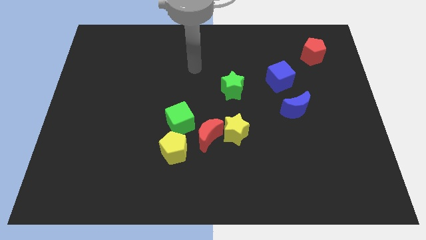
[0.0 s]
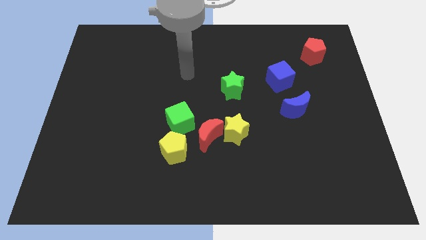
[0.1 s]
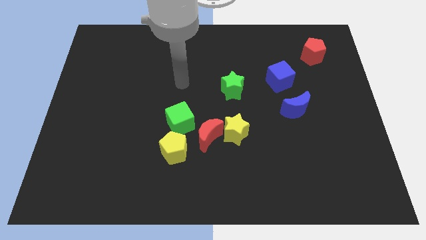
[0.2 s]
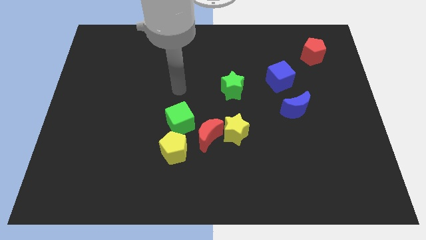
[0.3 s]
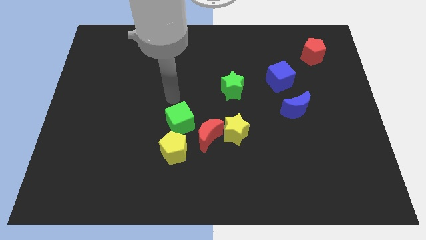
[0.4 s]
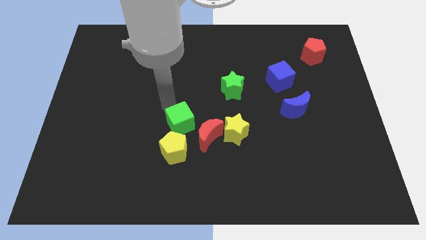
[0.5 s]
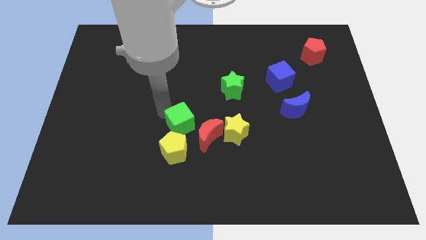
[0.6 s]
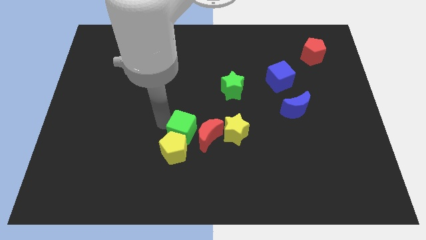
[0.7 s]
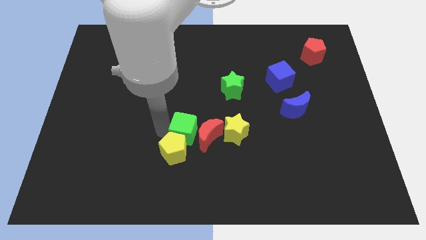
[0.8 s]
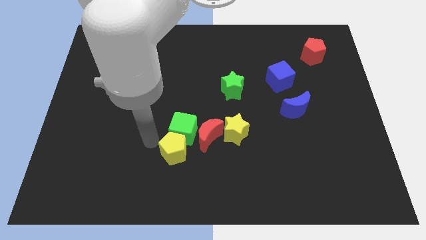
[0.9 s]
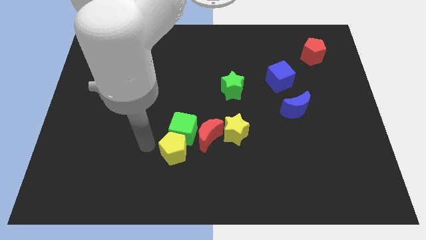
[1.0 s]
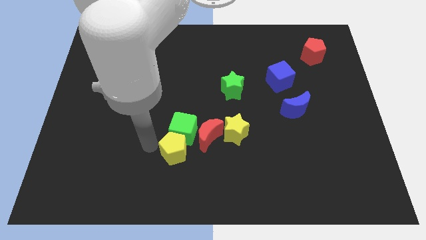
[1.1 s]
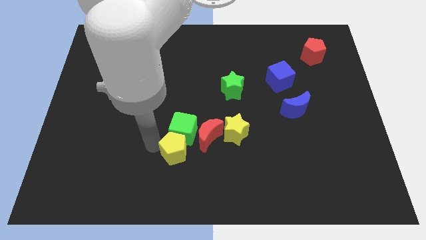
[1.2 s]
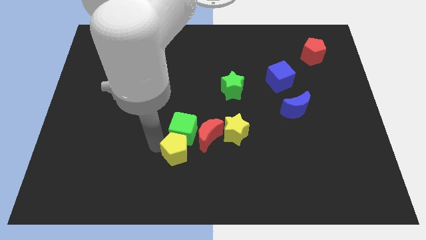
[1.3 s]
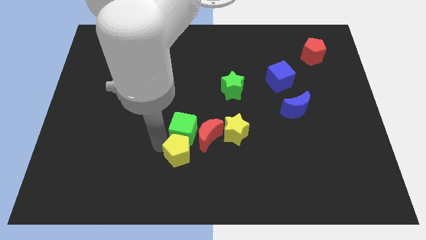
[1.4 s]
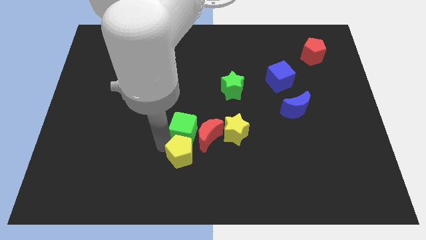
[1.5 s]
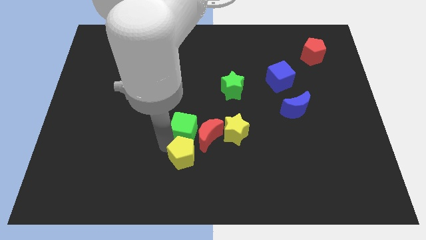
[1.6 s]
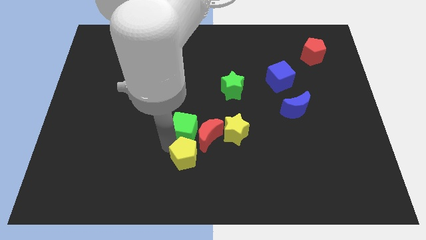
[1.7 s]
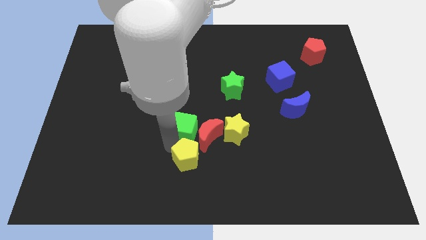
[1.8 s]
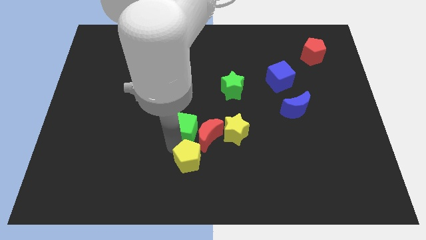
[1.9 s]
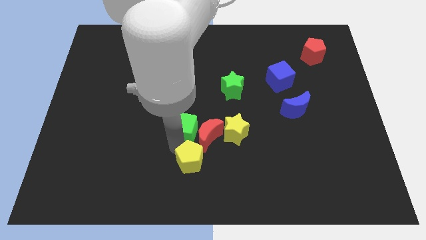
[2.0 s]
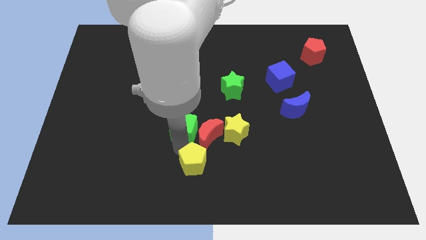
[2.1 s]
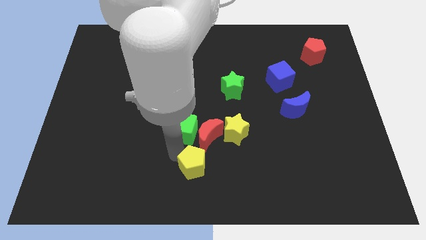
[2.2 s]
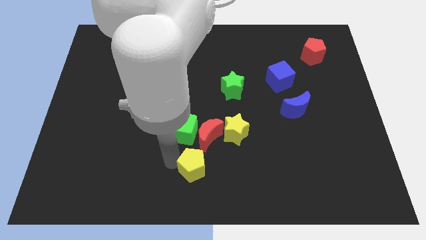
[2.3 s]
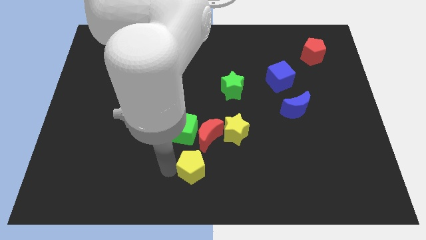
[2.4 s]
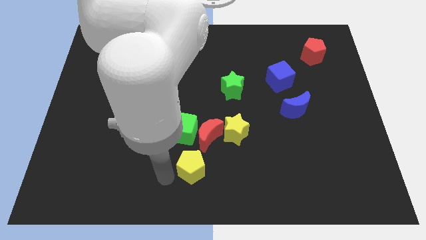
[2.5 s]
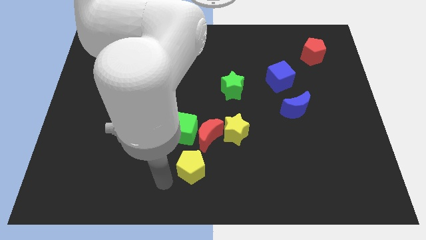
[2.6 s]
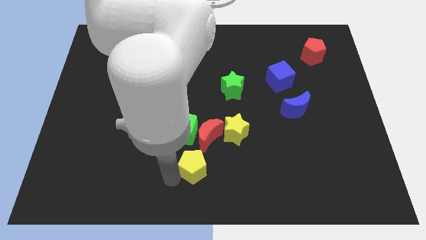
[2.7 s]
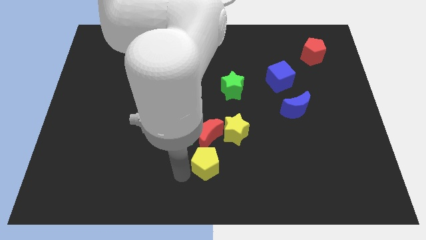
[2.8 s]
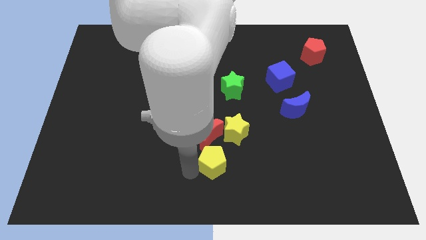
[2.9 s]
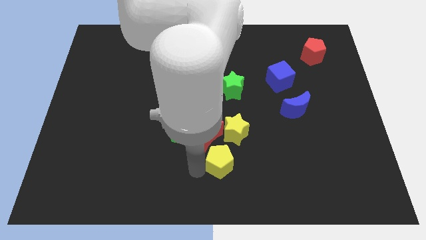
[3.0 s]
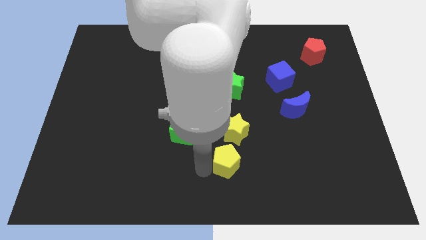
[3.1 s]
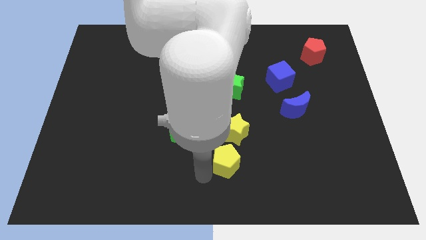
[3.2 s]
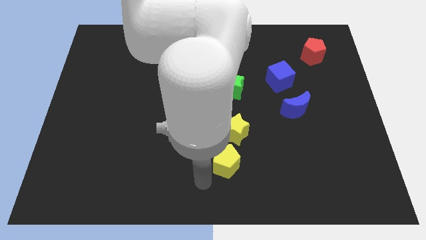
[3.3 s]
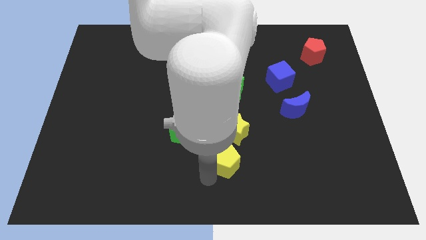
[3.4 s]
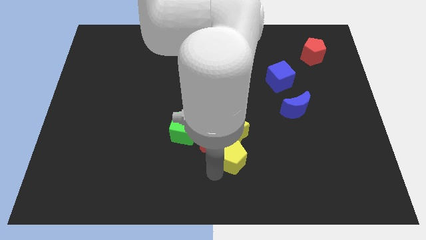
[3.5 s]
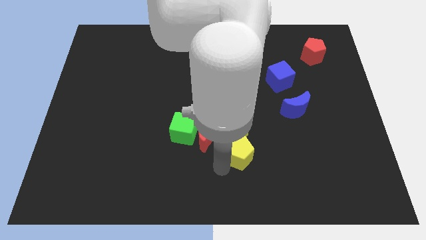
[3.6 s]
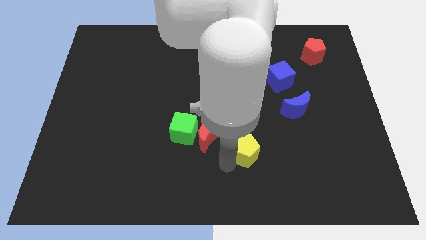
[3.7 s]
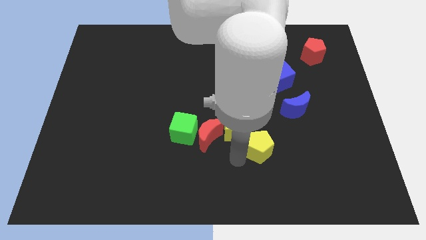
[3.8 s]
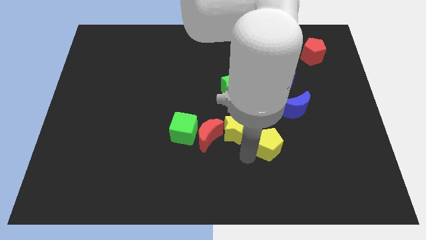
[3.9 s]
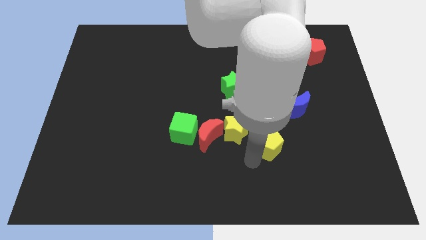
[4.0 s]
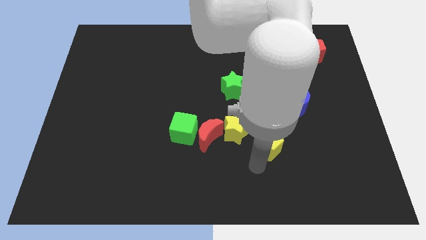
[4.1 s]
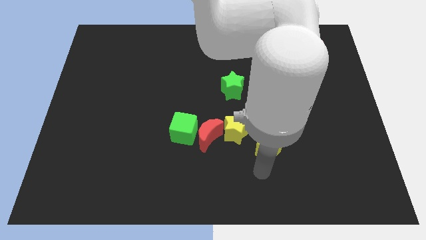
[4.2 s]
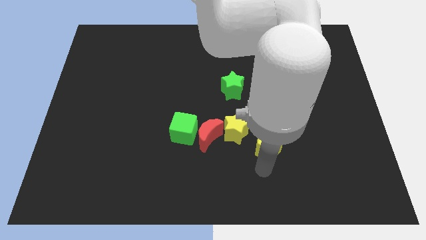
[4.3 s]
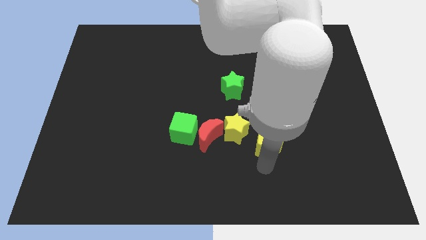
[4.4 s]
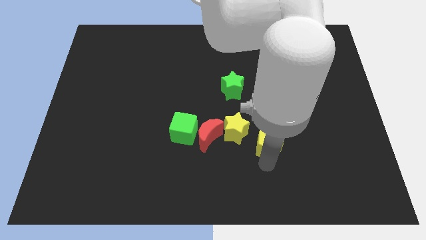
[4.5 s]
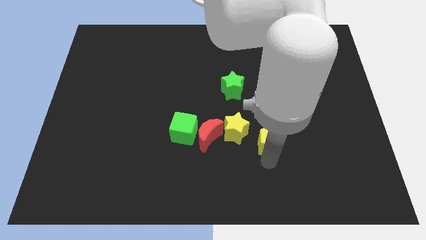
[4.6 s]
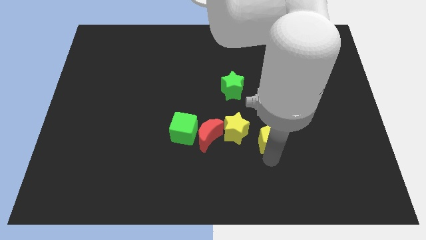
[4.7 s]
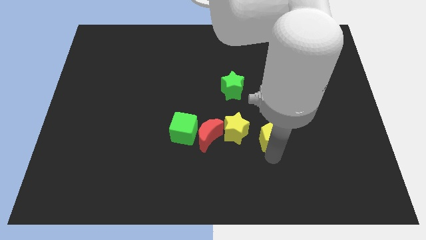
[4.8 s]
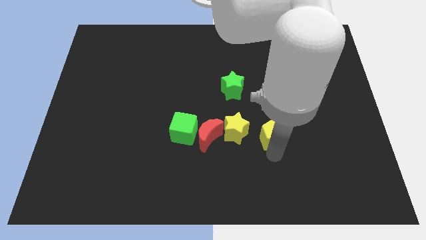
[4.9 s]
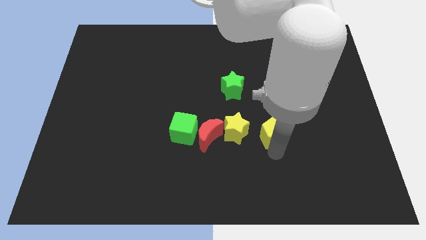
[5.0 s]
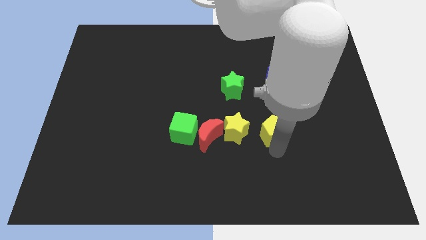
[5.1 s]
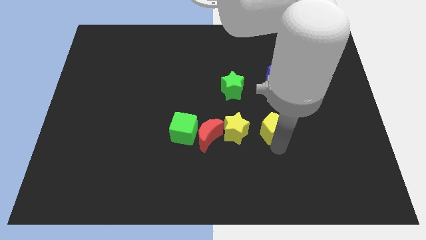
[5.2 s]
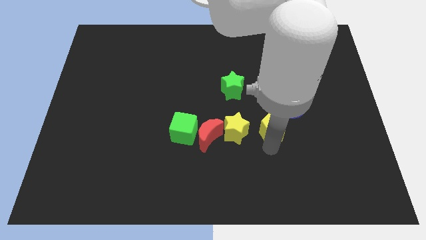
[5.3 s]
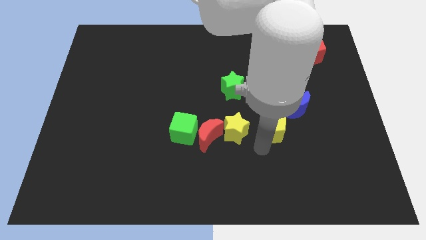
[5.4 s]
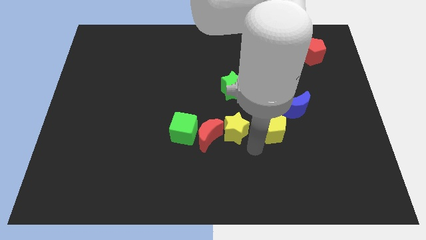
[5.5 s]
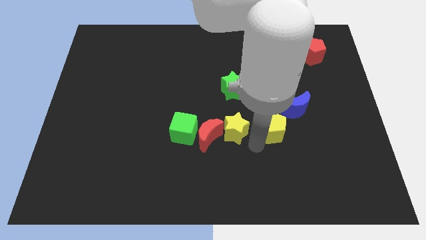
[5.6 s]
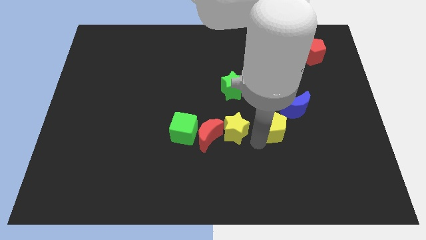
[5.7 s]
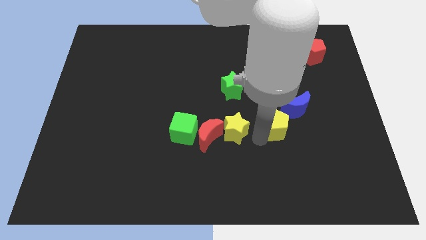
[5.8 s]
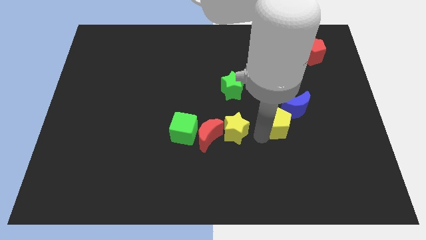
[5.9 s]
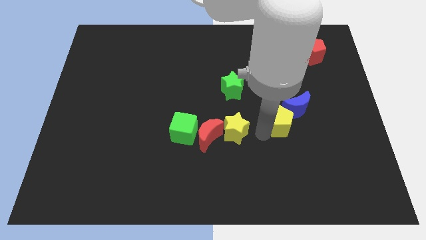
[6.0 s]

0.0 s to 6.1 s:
put the yellow pentagon to the blue moon
